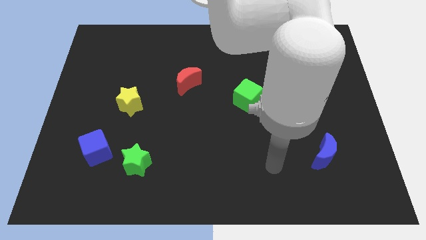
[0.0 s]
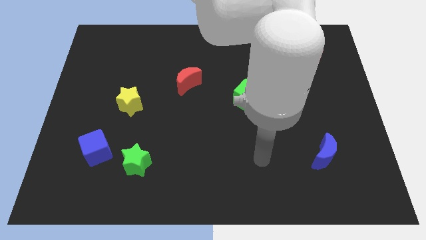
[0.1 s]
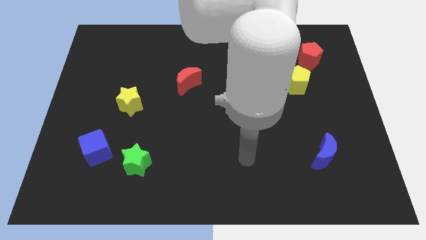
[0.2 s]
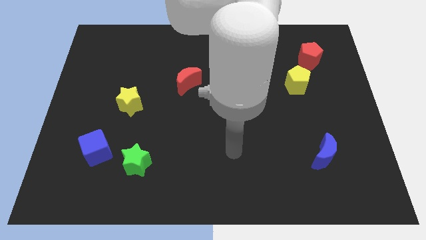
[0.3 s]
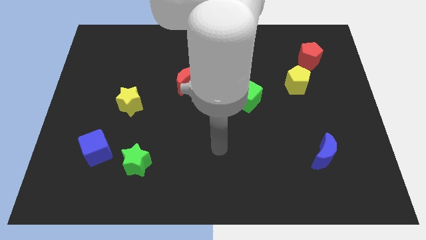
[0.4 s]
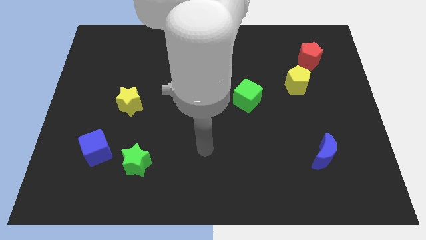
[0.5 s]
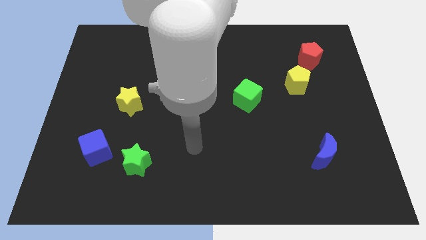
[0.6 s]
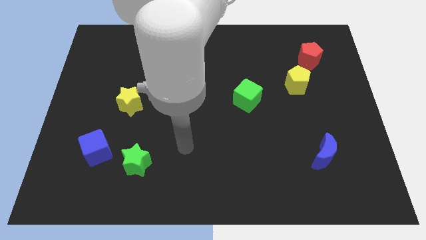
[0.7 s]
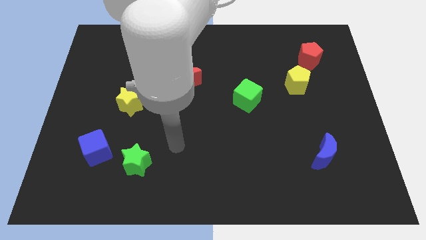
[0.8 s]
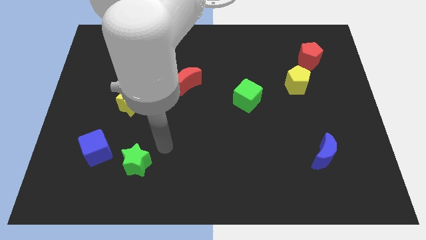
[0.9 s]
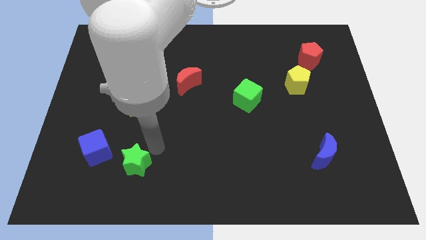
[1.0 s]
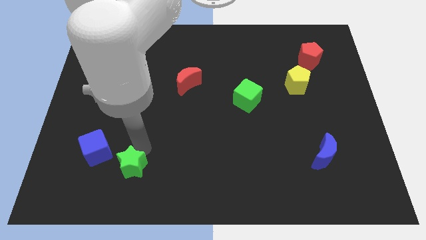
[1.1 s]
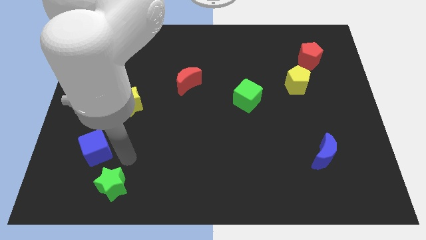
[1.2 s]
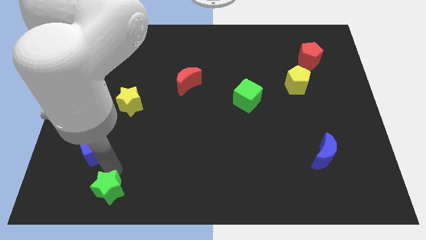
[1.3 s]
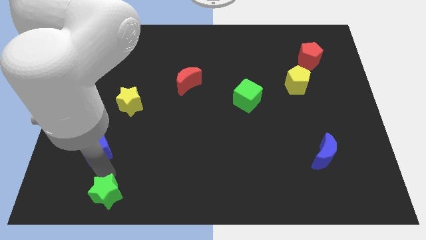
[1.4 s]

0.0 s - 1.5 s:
separate the blue cube from the green star

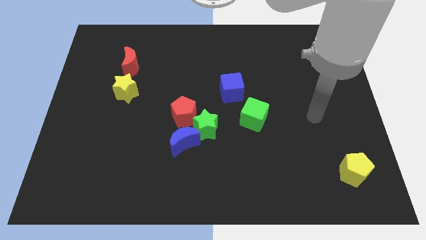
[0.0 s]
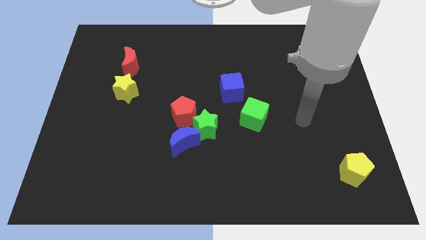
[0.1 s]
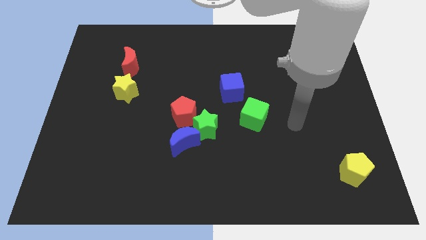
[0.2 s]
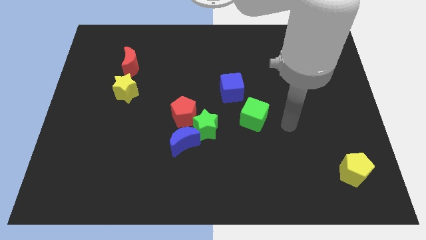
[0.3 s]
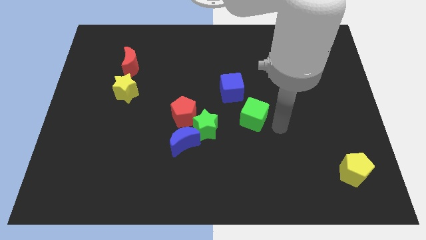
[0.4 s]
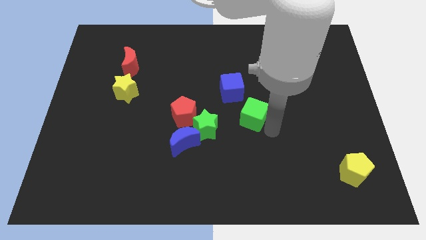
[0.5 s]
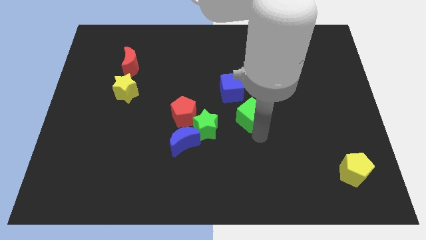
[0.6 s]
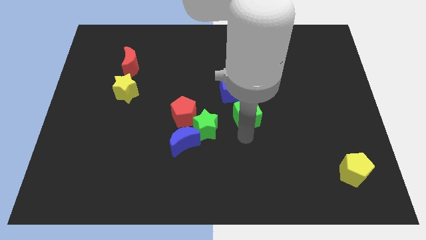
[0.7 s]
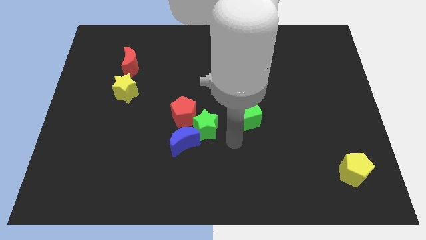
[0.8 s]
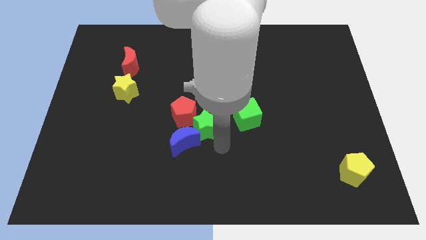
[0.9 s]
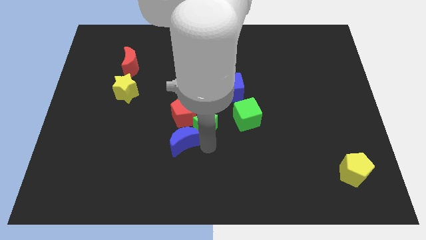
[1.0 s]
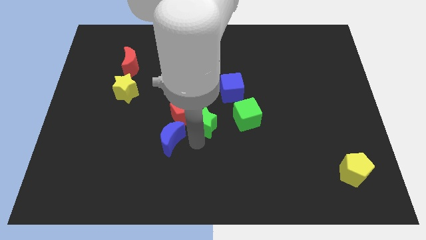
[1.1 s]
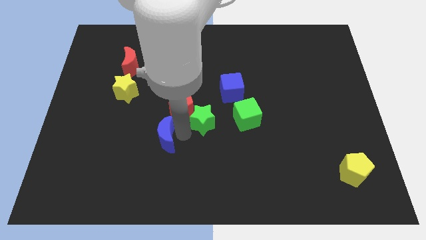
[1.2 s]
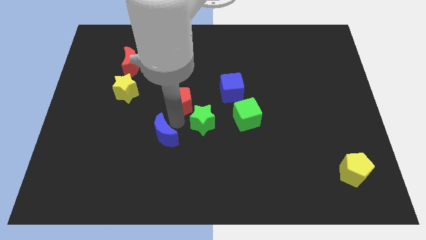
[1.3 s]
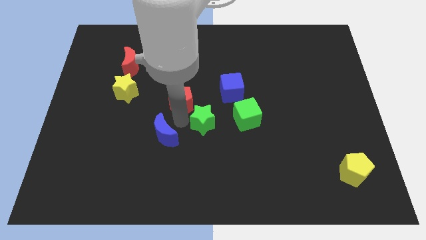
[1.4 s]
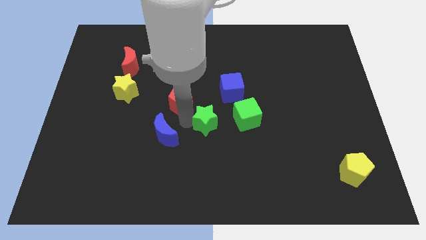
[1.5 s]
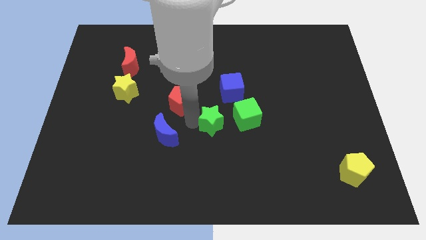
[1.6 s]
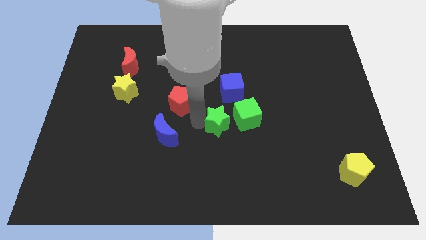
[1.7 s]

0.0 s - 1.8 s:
separate the green star from the blue moon and red pentagon

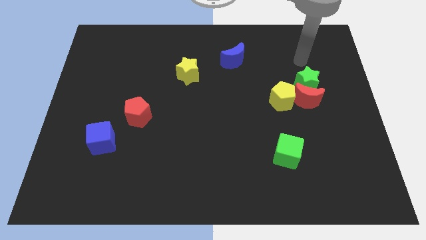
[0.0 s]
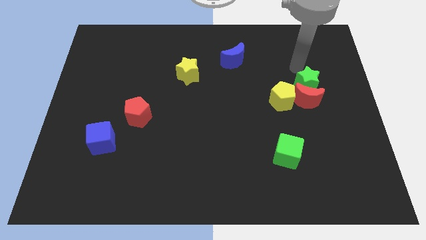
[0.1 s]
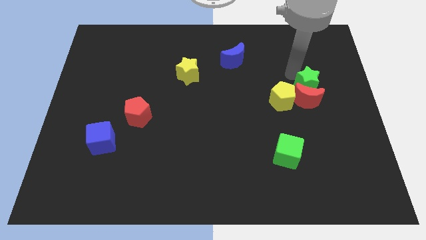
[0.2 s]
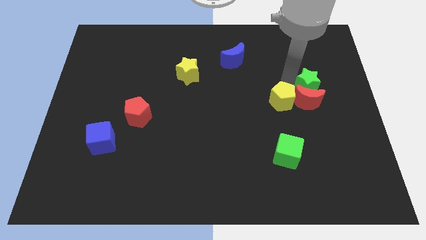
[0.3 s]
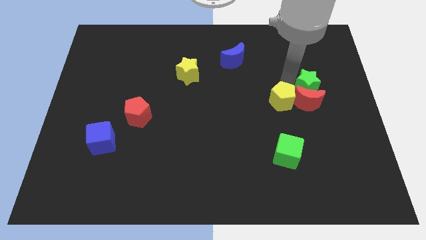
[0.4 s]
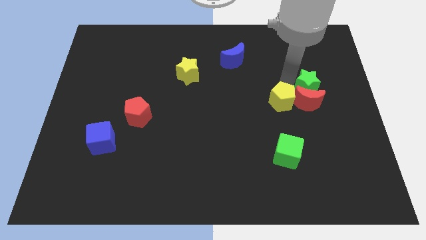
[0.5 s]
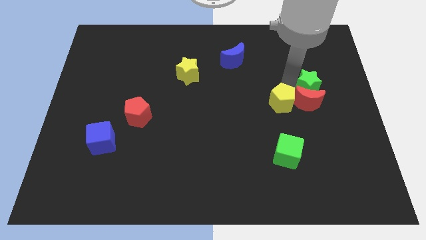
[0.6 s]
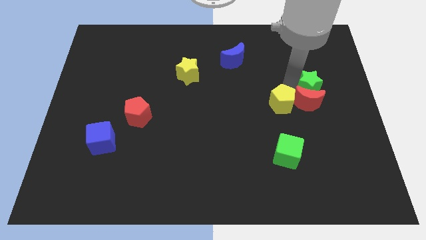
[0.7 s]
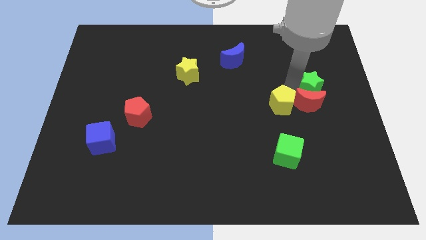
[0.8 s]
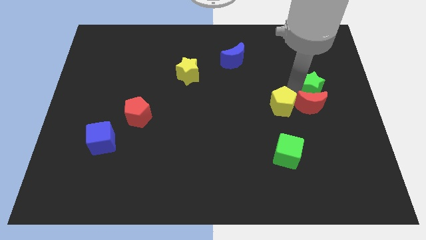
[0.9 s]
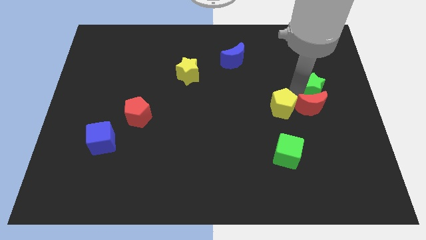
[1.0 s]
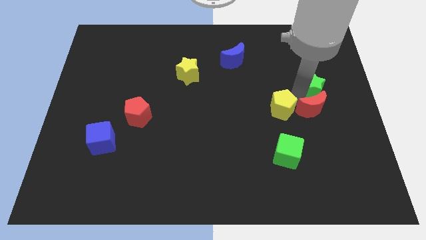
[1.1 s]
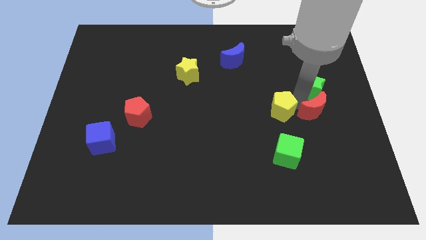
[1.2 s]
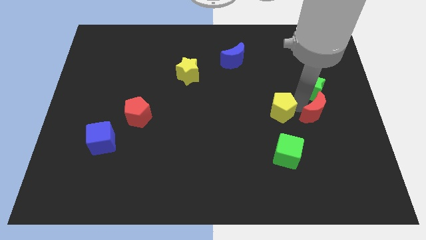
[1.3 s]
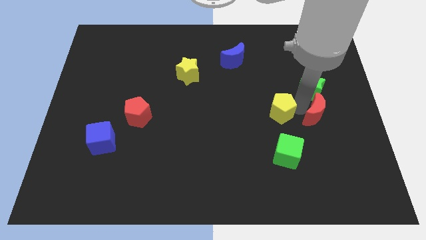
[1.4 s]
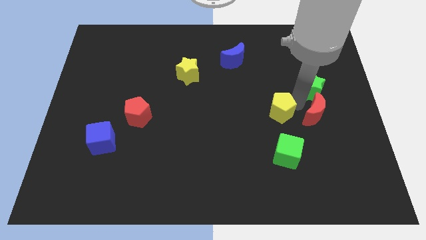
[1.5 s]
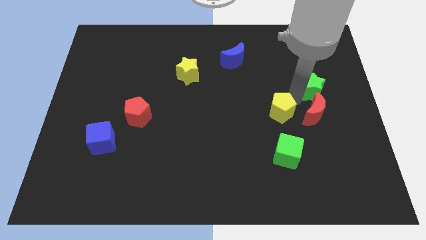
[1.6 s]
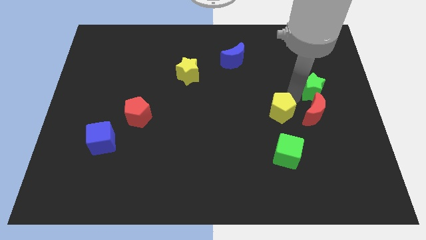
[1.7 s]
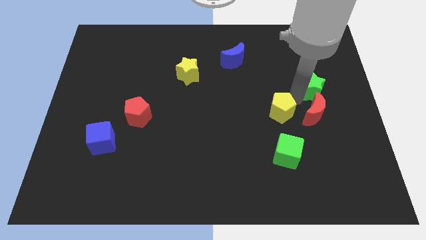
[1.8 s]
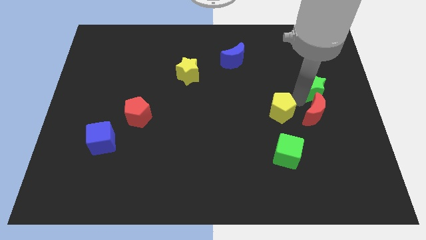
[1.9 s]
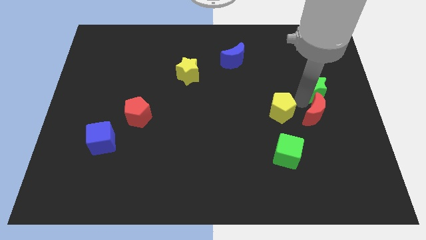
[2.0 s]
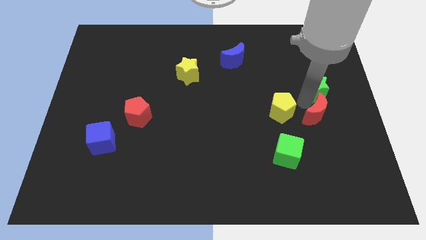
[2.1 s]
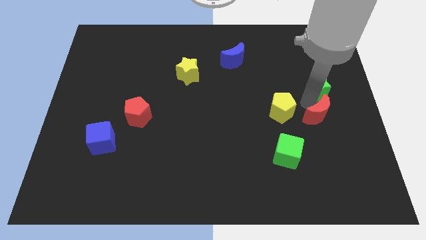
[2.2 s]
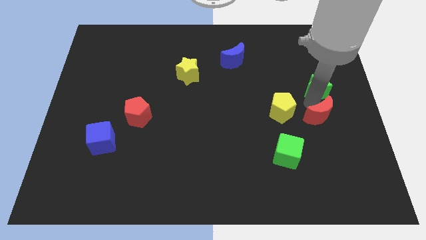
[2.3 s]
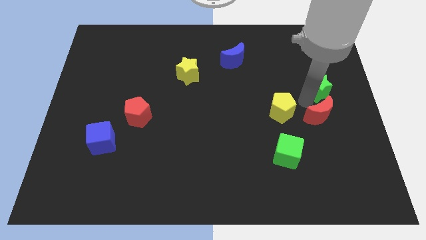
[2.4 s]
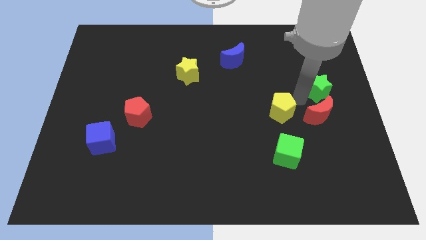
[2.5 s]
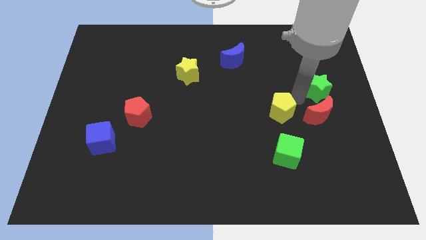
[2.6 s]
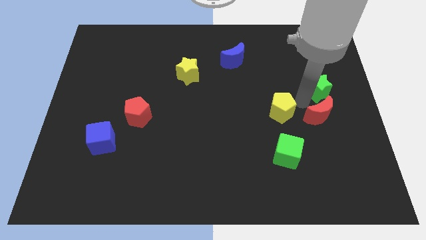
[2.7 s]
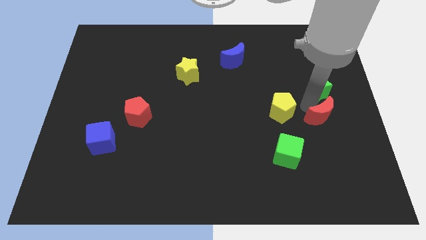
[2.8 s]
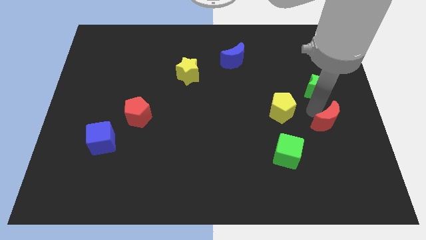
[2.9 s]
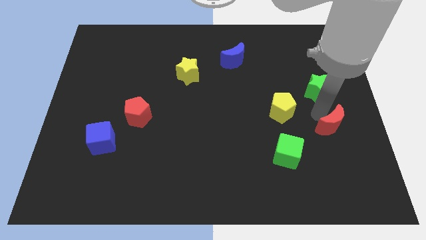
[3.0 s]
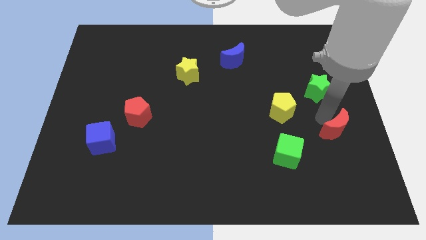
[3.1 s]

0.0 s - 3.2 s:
separate the red moon from the green star and yellow pentagon

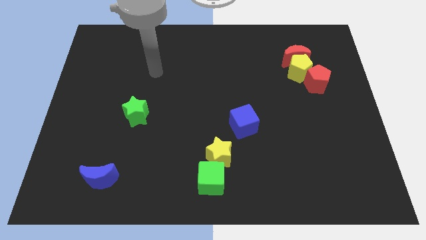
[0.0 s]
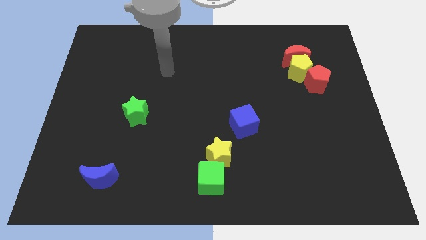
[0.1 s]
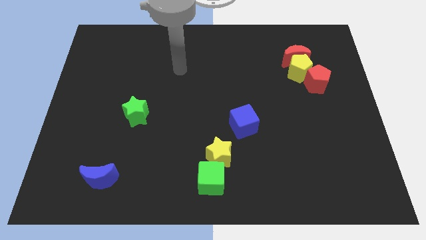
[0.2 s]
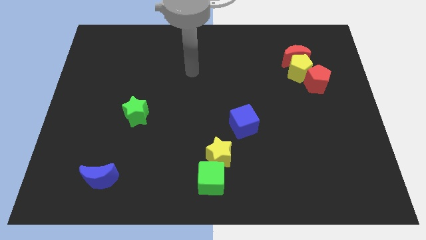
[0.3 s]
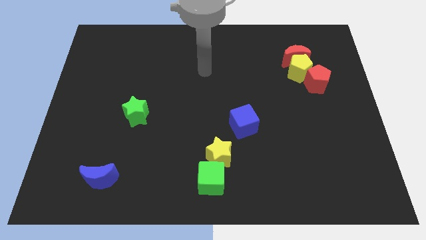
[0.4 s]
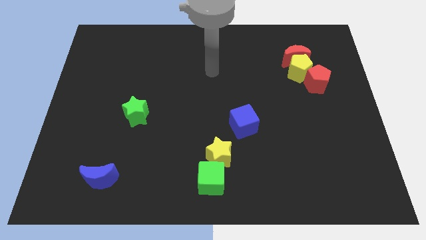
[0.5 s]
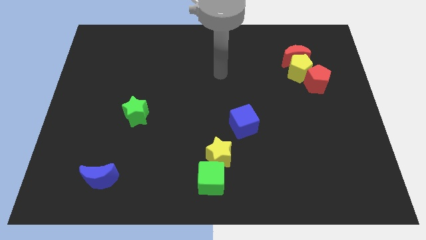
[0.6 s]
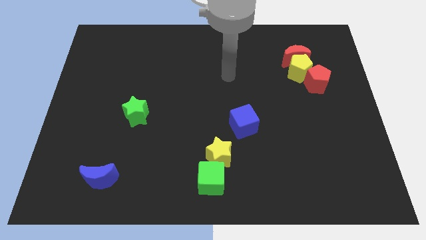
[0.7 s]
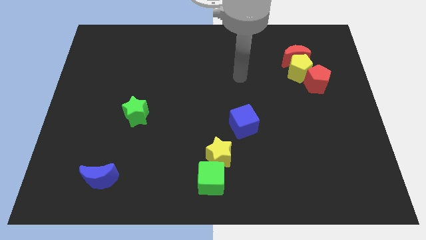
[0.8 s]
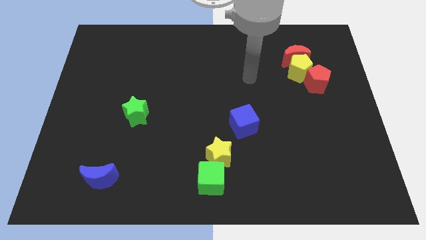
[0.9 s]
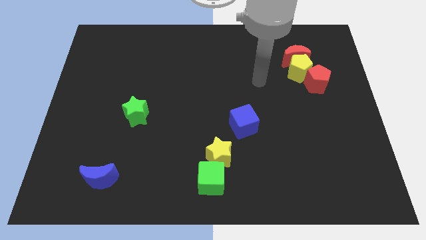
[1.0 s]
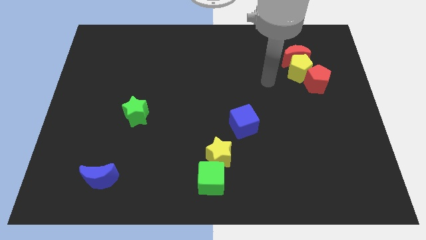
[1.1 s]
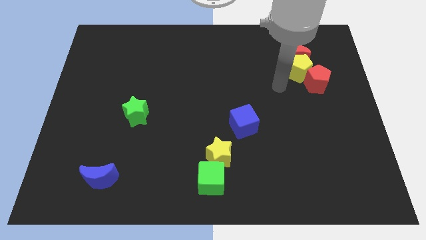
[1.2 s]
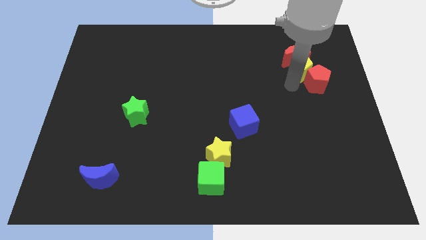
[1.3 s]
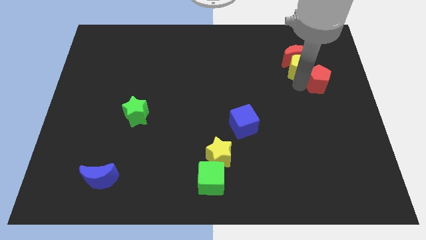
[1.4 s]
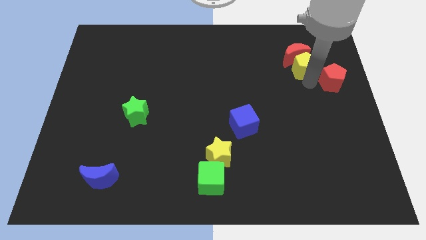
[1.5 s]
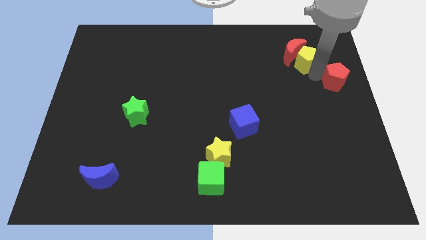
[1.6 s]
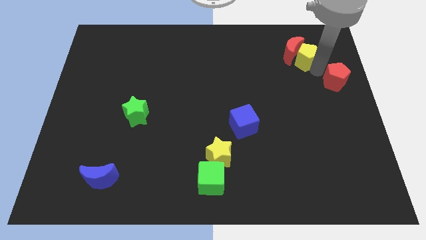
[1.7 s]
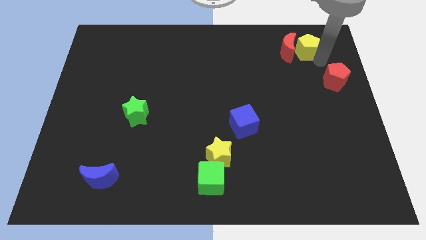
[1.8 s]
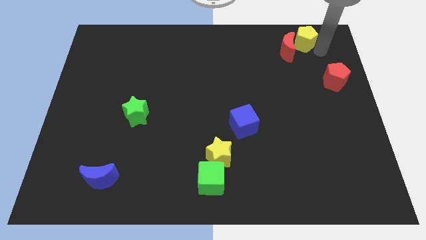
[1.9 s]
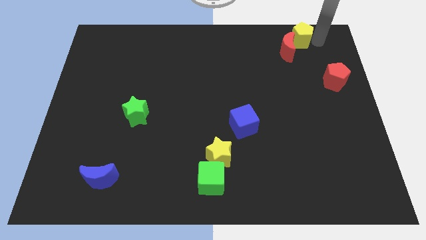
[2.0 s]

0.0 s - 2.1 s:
separate the yellow pentagon from the red moon and red pentagon

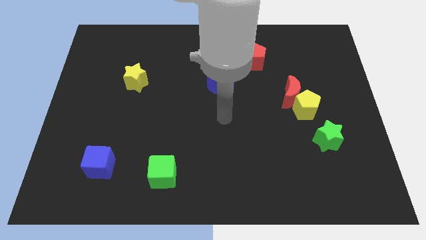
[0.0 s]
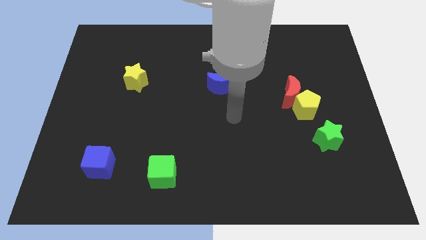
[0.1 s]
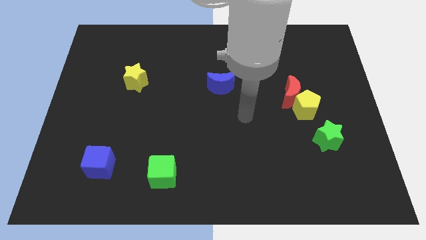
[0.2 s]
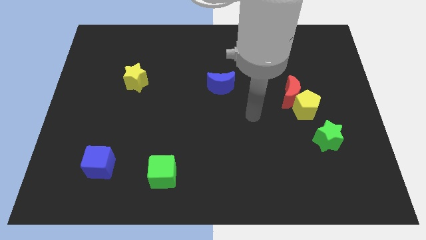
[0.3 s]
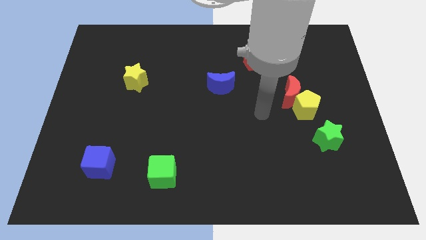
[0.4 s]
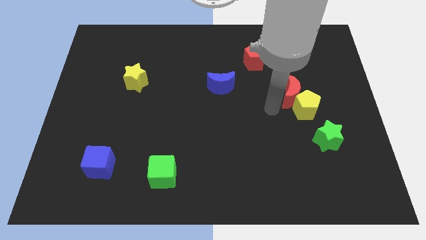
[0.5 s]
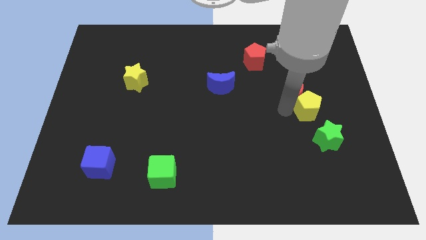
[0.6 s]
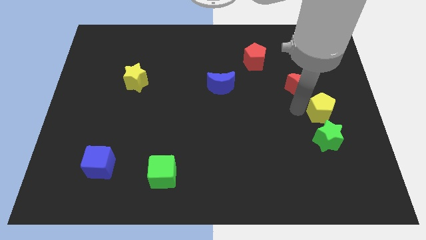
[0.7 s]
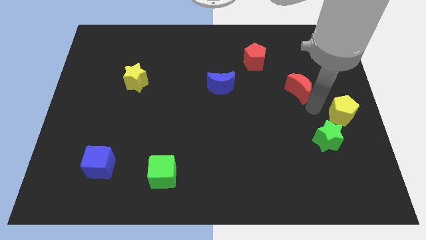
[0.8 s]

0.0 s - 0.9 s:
pull the red moon apart from the yellow pentagon
